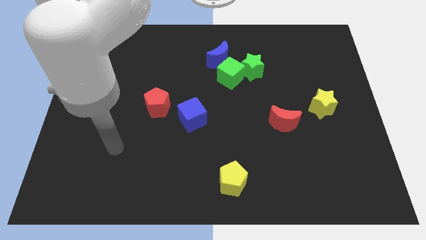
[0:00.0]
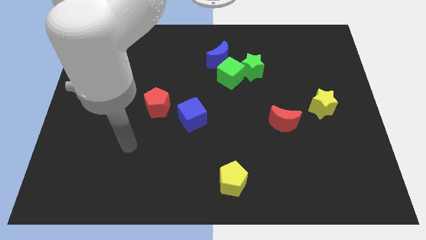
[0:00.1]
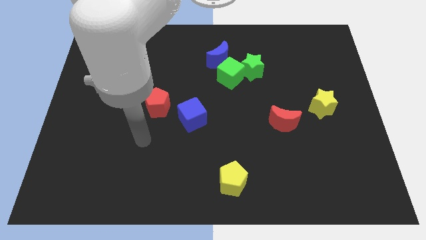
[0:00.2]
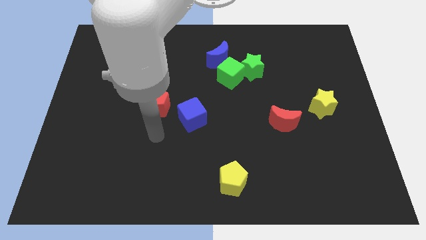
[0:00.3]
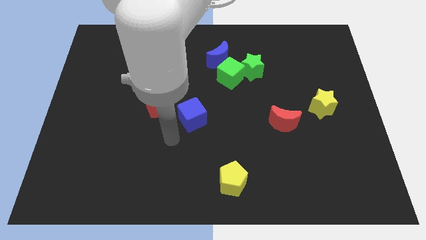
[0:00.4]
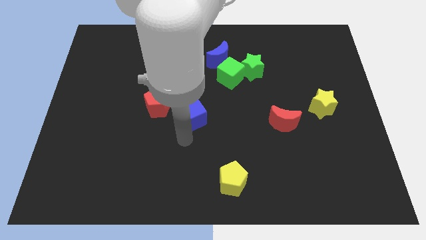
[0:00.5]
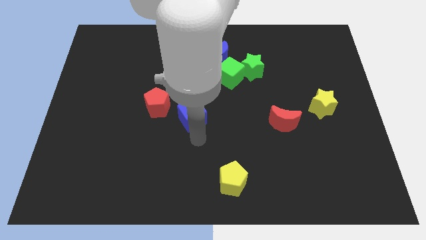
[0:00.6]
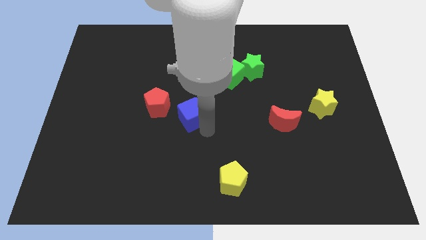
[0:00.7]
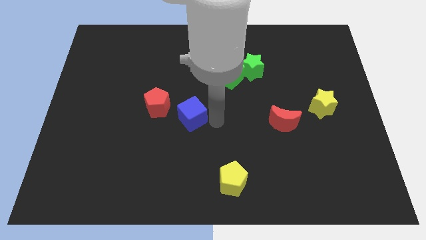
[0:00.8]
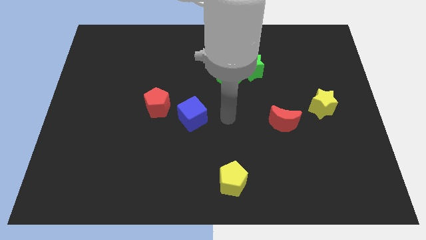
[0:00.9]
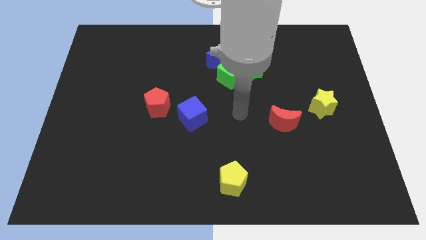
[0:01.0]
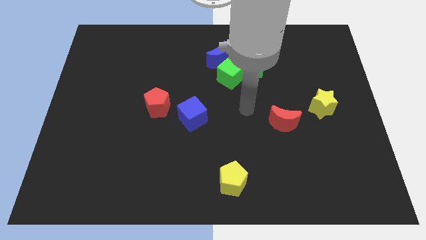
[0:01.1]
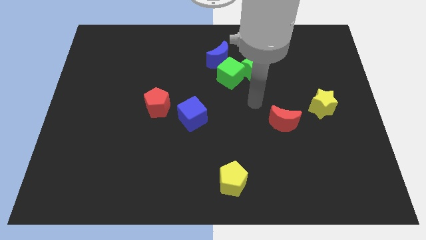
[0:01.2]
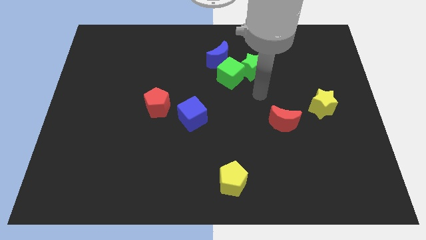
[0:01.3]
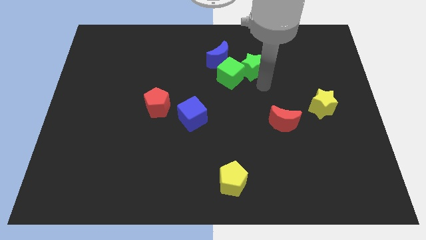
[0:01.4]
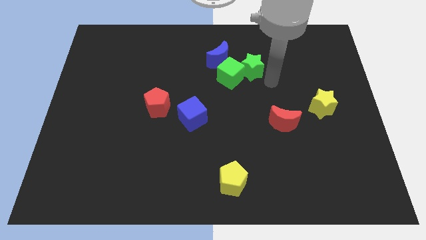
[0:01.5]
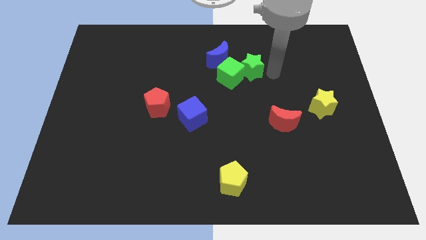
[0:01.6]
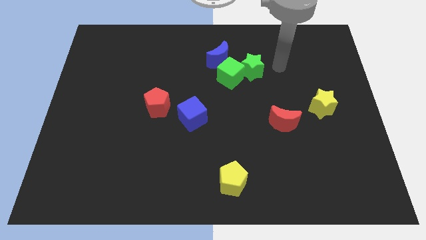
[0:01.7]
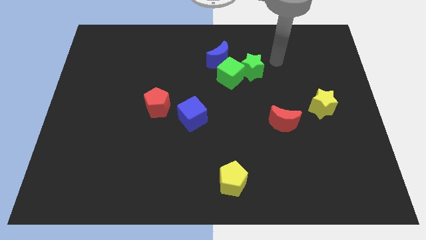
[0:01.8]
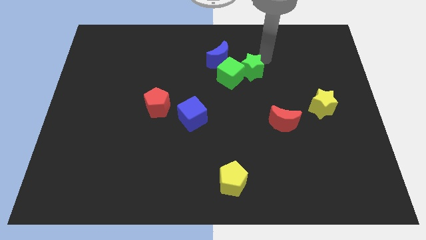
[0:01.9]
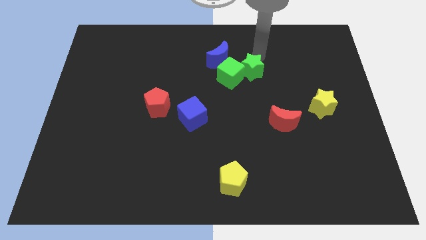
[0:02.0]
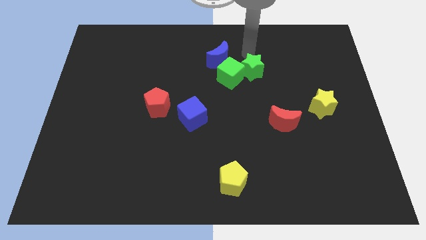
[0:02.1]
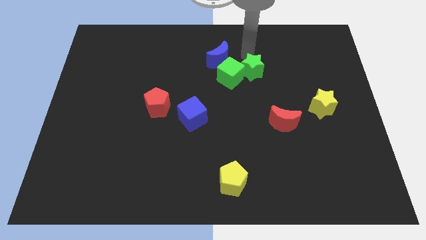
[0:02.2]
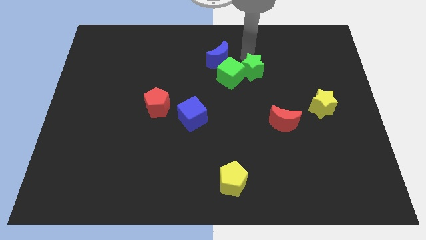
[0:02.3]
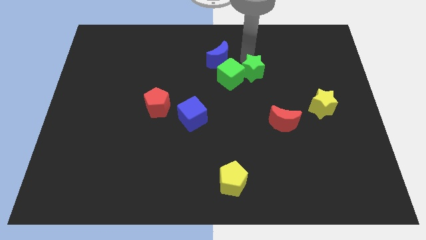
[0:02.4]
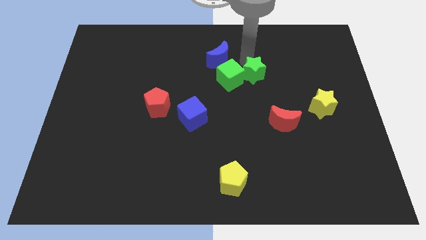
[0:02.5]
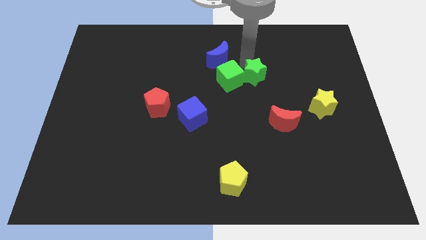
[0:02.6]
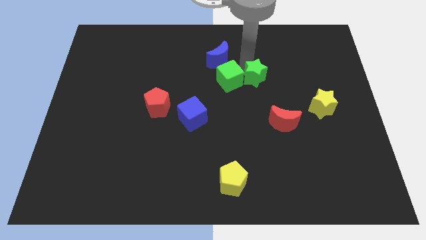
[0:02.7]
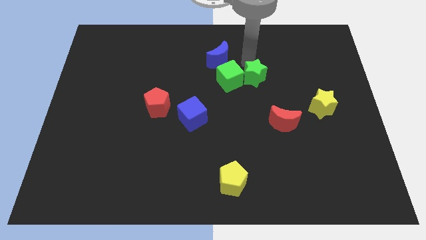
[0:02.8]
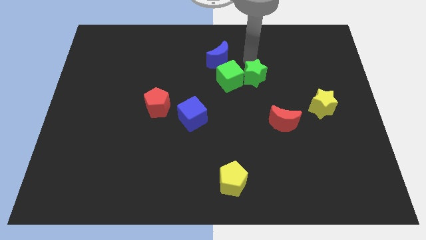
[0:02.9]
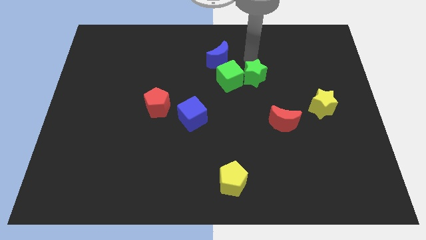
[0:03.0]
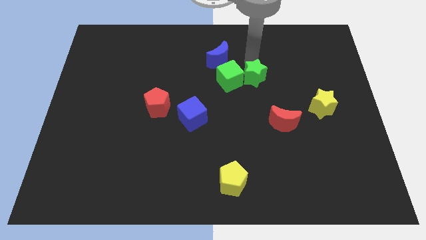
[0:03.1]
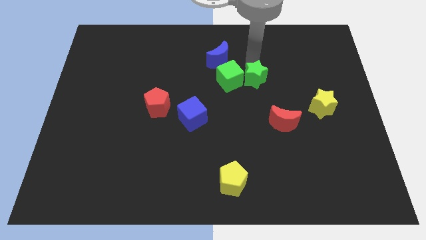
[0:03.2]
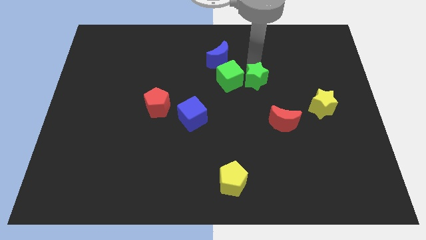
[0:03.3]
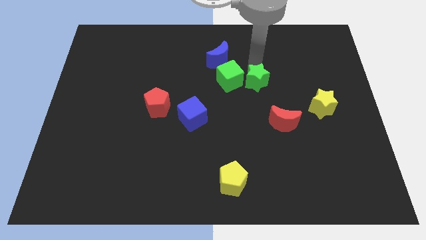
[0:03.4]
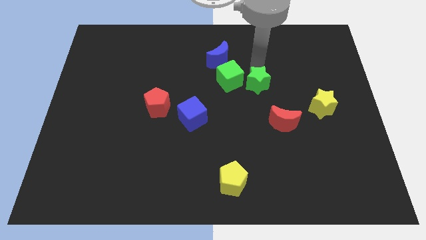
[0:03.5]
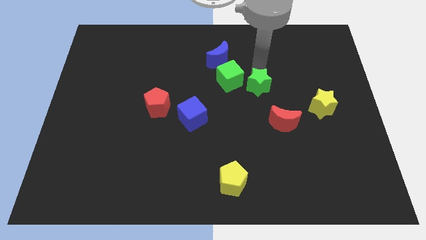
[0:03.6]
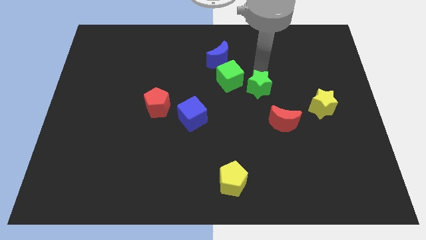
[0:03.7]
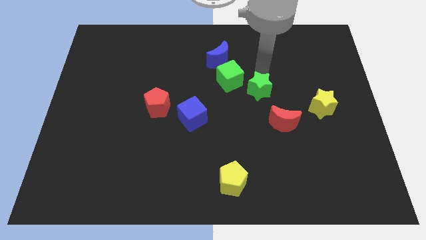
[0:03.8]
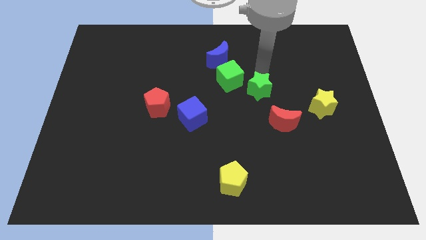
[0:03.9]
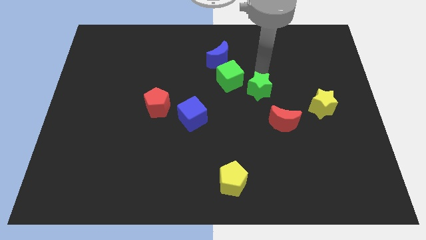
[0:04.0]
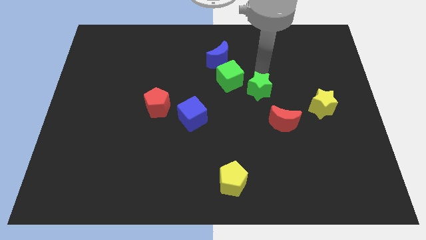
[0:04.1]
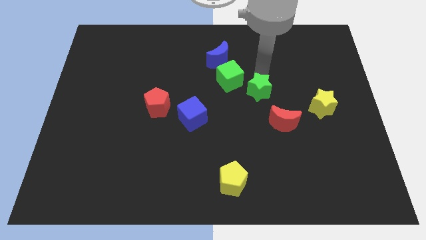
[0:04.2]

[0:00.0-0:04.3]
push the green star a little down

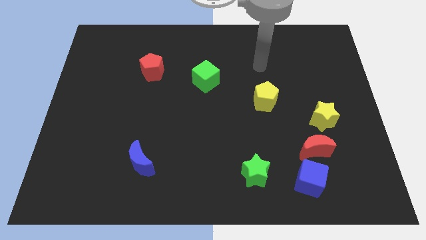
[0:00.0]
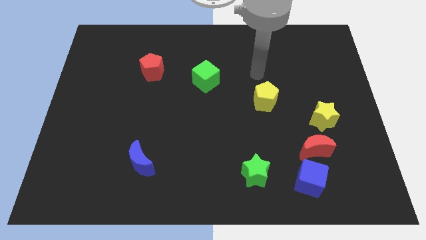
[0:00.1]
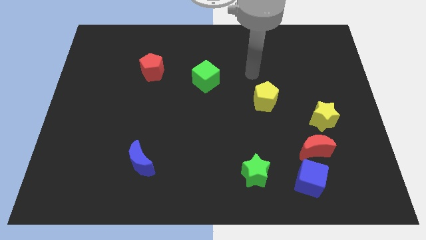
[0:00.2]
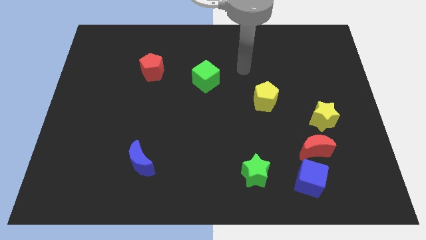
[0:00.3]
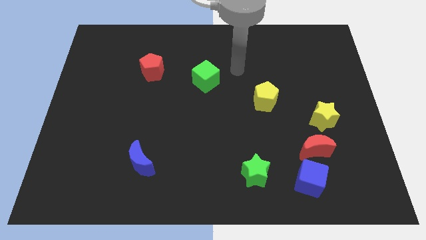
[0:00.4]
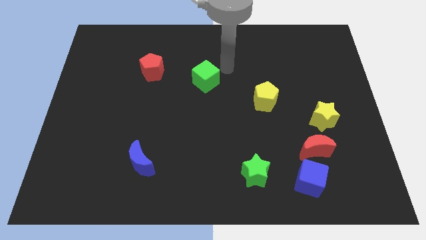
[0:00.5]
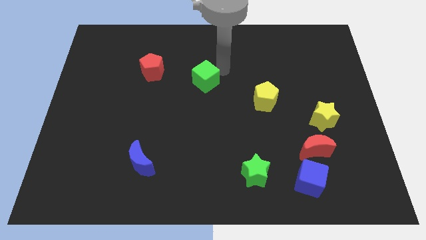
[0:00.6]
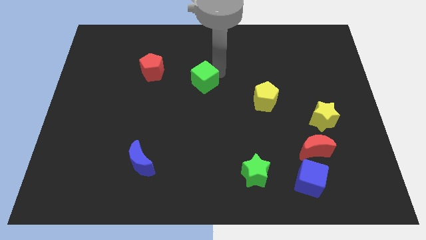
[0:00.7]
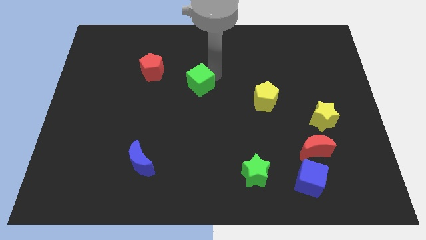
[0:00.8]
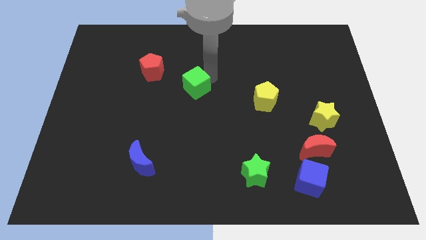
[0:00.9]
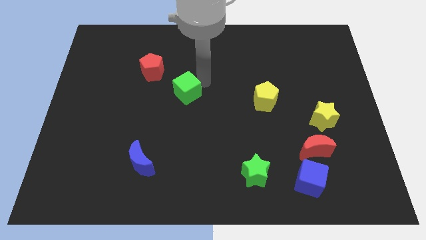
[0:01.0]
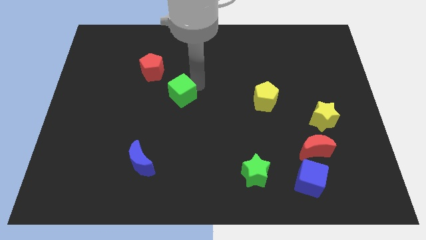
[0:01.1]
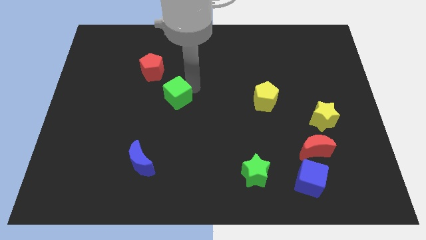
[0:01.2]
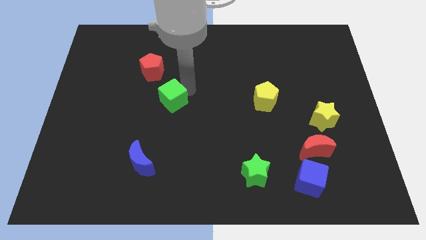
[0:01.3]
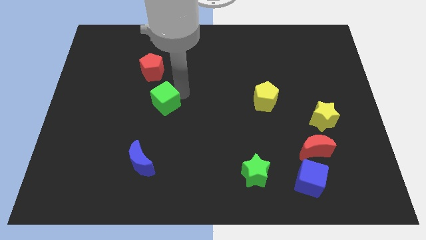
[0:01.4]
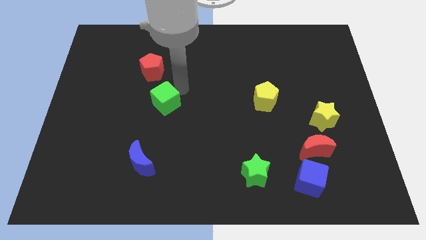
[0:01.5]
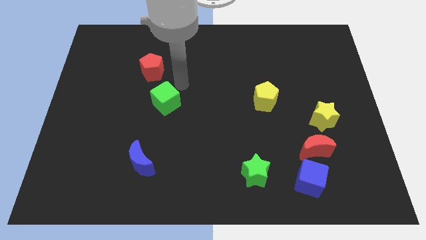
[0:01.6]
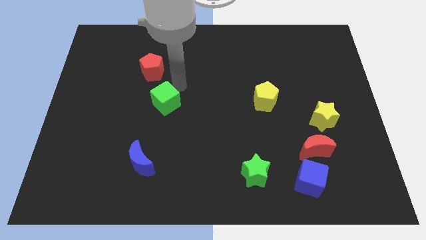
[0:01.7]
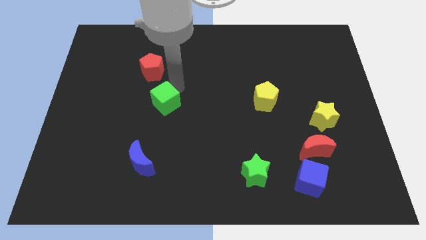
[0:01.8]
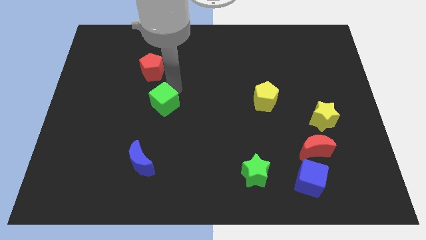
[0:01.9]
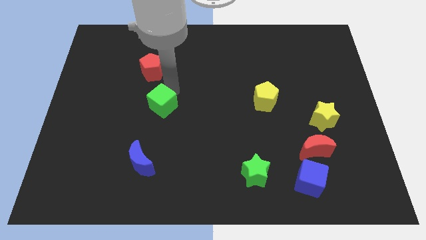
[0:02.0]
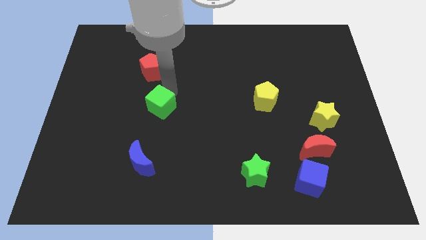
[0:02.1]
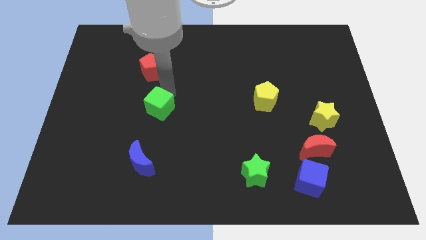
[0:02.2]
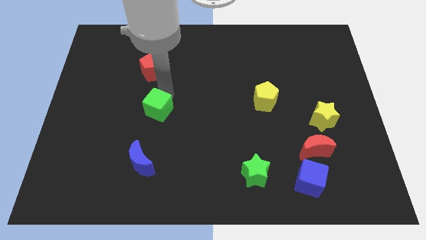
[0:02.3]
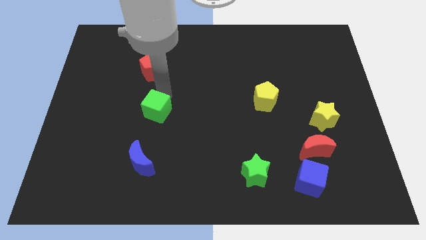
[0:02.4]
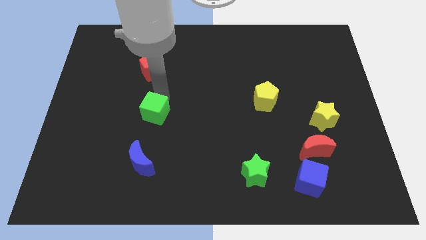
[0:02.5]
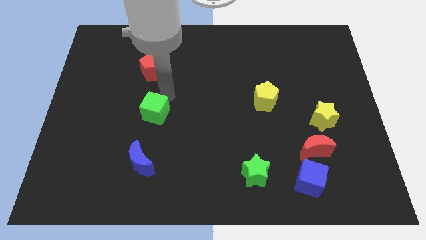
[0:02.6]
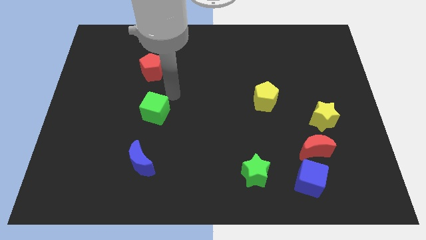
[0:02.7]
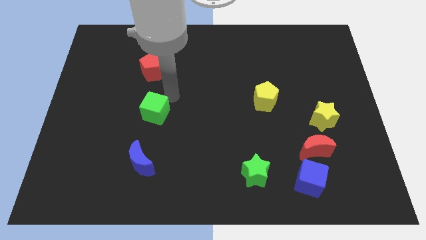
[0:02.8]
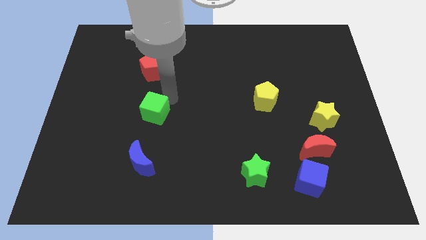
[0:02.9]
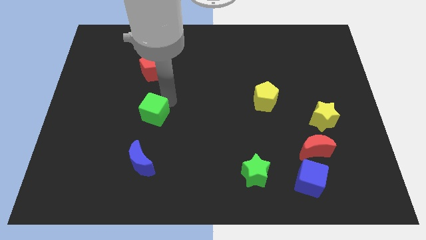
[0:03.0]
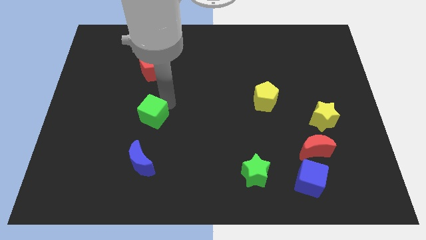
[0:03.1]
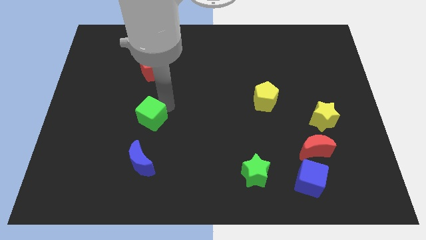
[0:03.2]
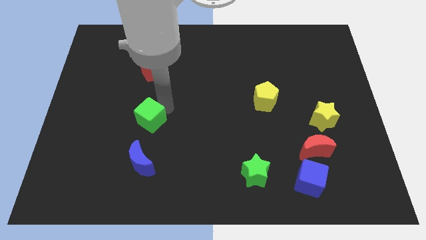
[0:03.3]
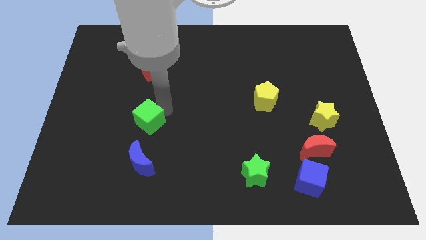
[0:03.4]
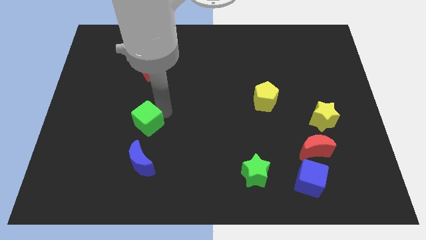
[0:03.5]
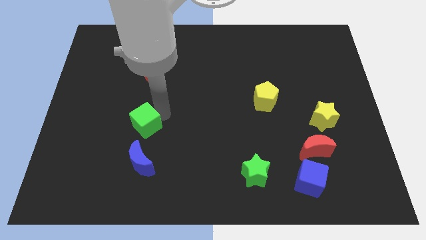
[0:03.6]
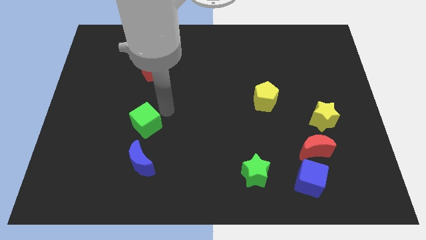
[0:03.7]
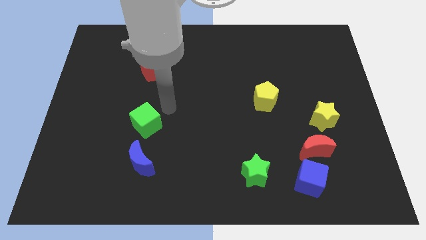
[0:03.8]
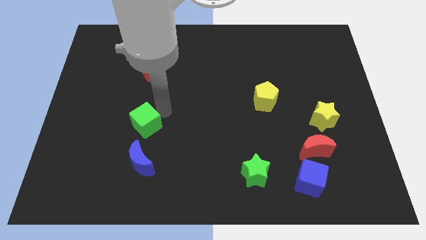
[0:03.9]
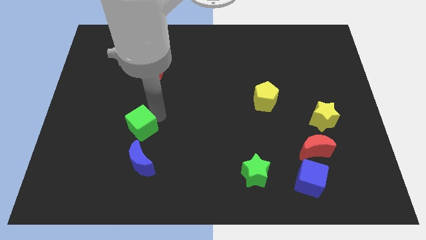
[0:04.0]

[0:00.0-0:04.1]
move the green cube diagonally down and left

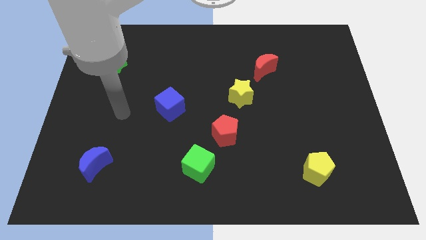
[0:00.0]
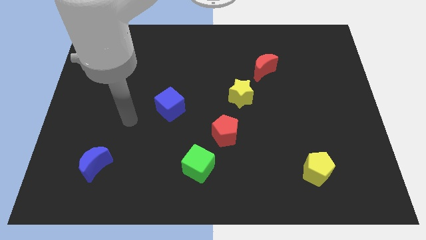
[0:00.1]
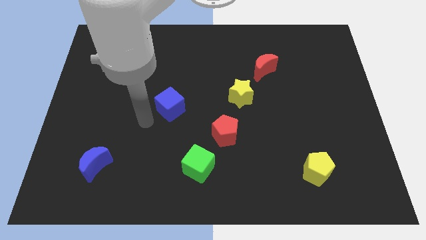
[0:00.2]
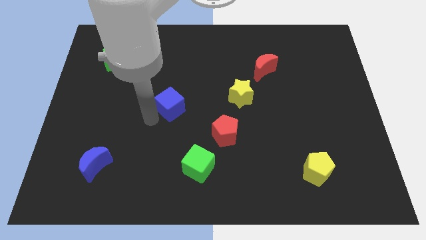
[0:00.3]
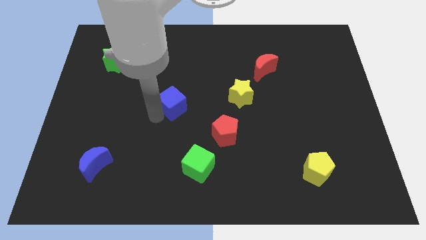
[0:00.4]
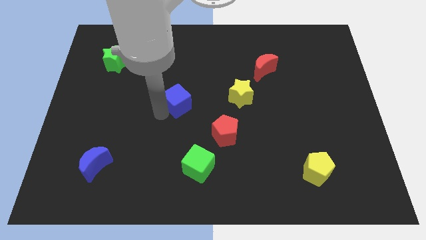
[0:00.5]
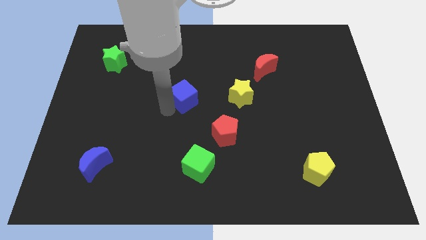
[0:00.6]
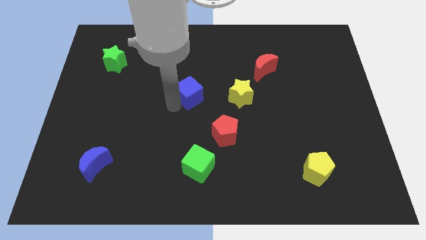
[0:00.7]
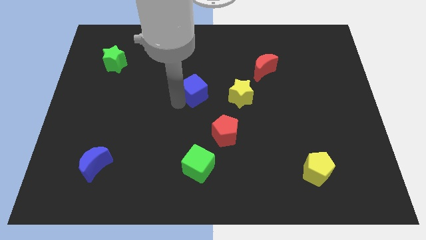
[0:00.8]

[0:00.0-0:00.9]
push the blue cube diagonally upwards and to the right a little
